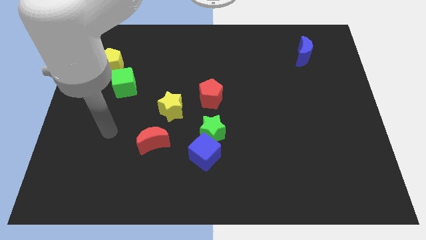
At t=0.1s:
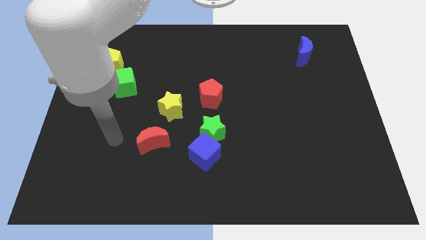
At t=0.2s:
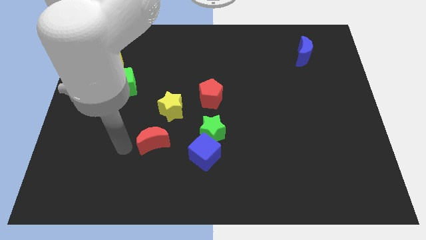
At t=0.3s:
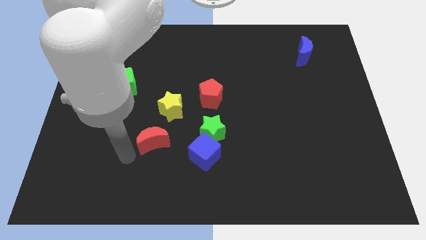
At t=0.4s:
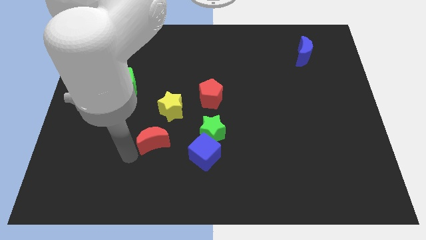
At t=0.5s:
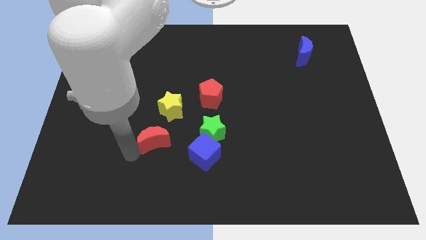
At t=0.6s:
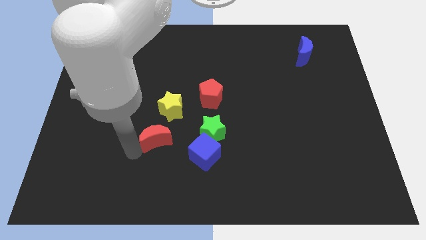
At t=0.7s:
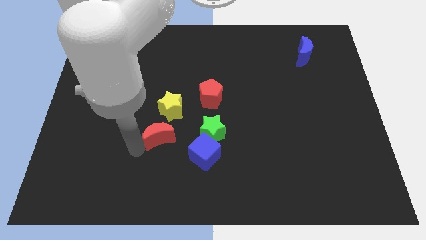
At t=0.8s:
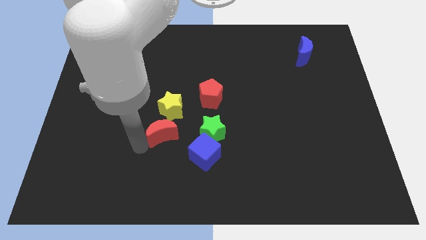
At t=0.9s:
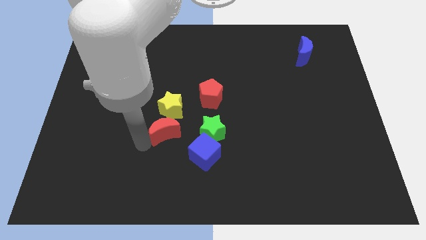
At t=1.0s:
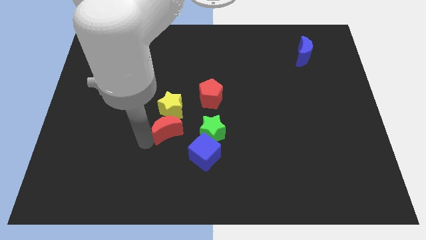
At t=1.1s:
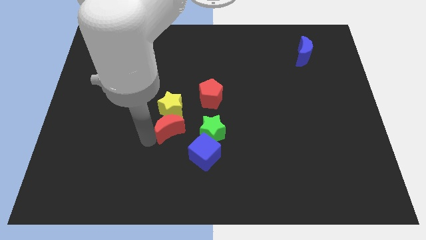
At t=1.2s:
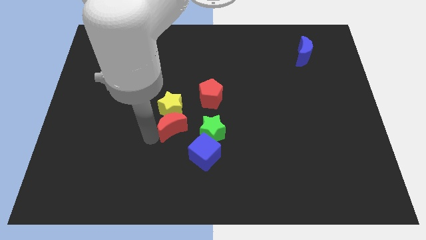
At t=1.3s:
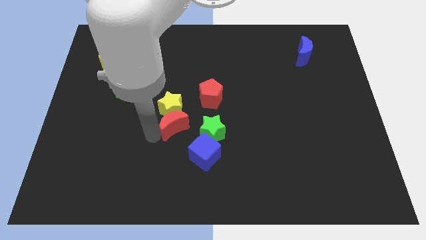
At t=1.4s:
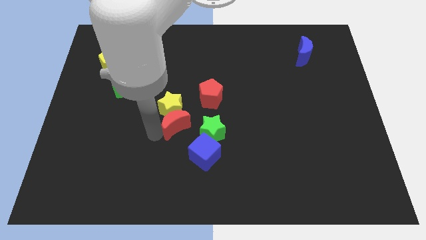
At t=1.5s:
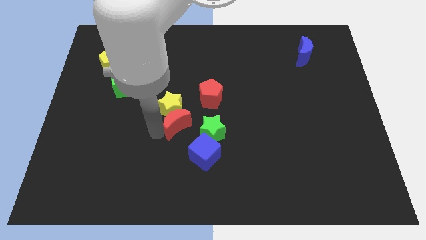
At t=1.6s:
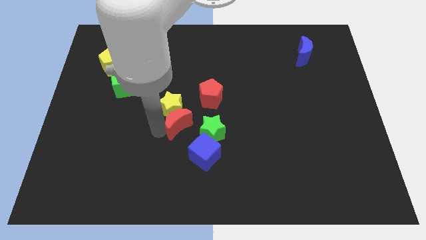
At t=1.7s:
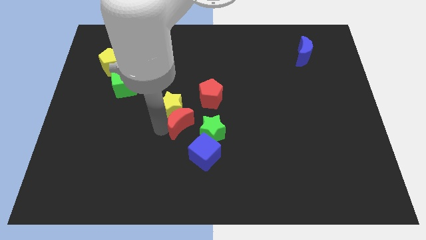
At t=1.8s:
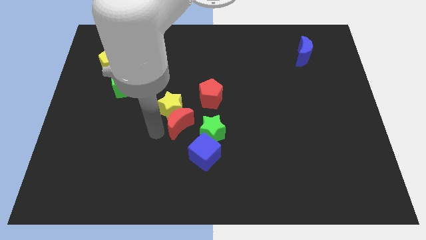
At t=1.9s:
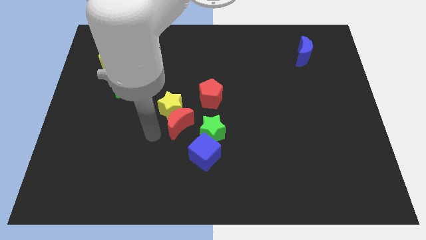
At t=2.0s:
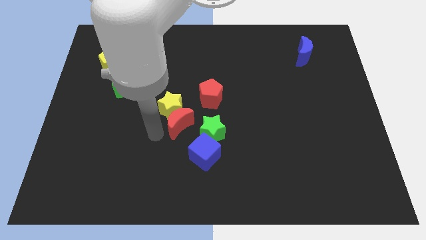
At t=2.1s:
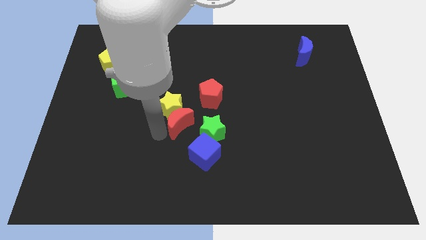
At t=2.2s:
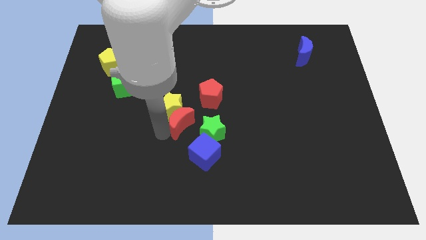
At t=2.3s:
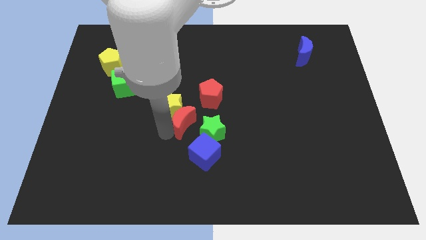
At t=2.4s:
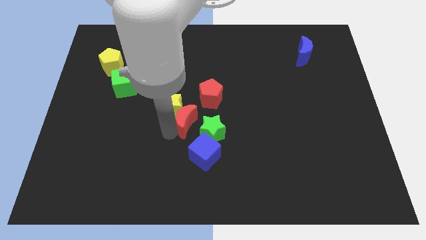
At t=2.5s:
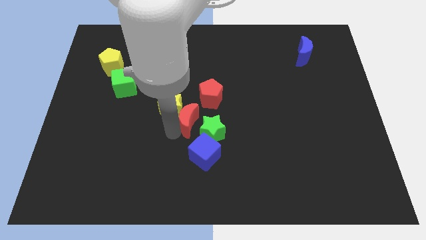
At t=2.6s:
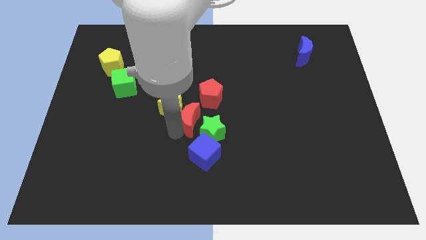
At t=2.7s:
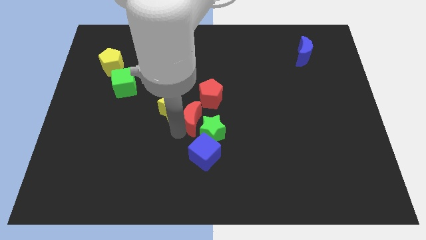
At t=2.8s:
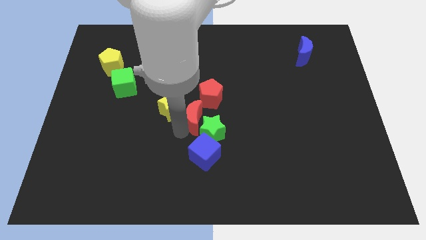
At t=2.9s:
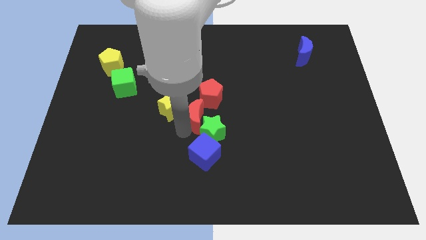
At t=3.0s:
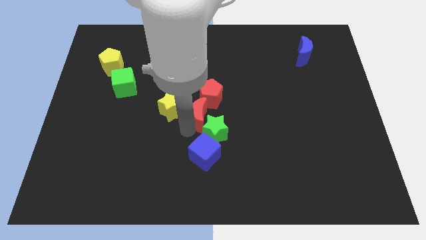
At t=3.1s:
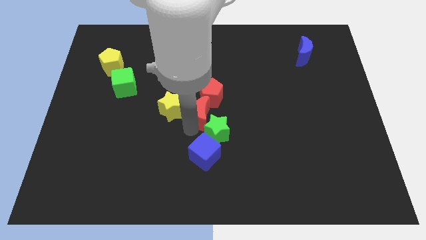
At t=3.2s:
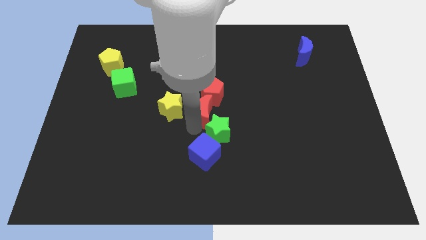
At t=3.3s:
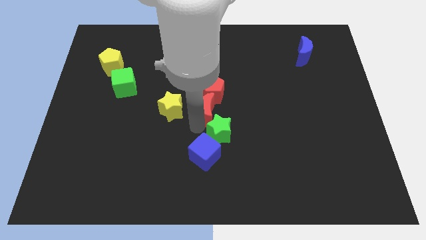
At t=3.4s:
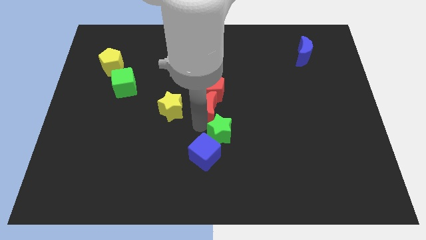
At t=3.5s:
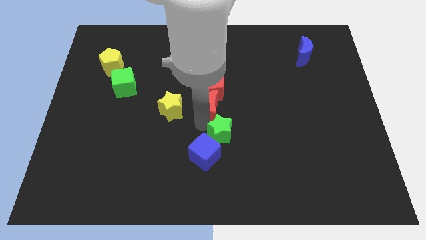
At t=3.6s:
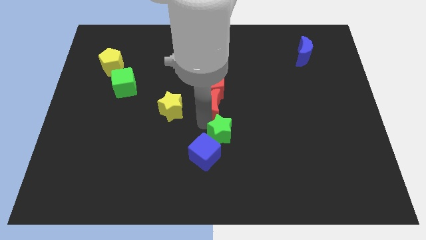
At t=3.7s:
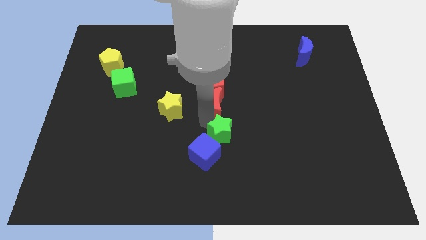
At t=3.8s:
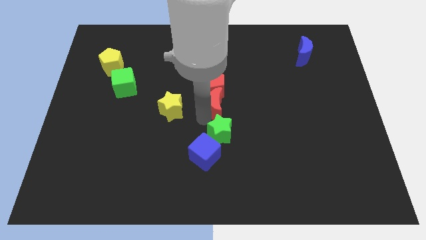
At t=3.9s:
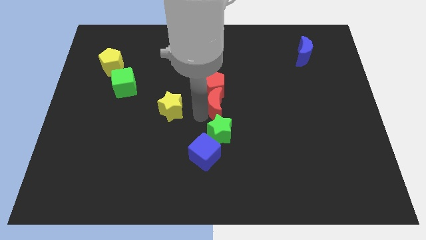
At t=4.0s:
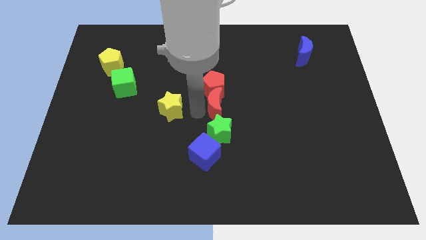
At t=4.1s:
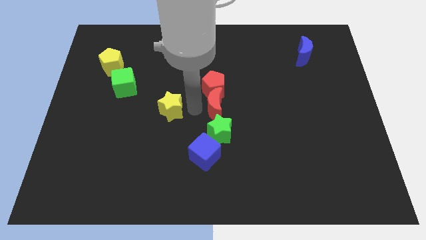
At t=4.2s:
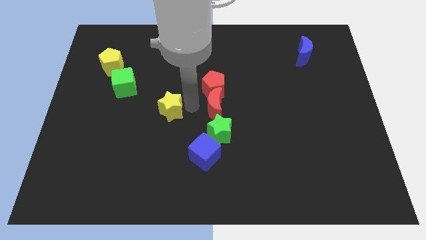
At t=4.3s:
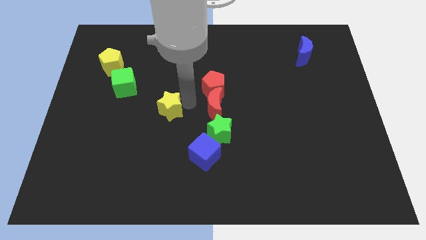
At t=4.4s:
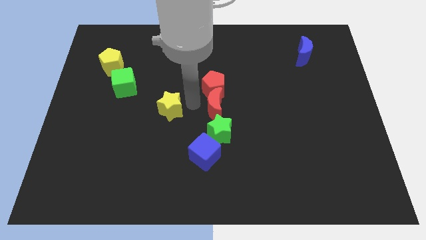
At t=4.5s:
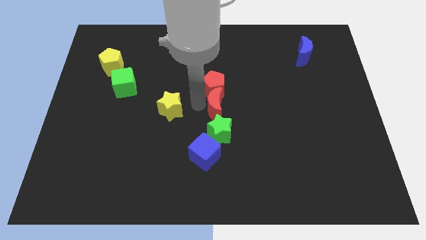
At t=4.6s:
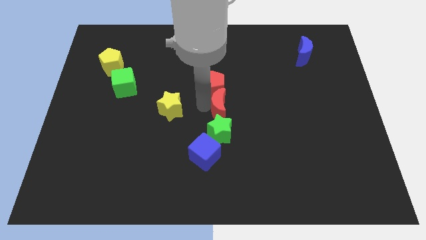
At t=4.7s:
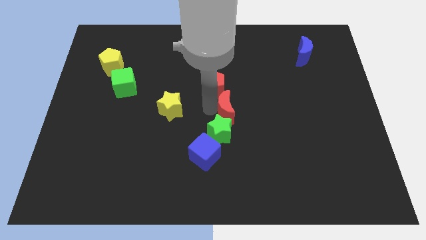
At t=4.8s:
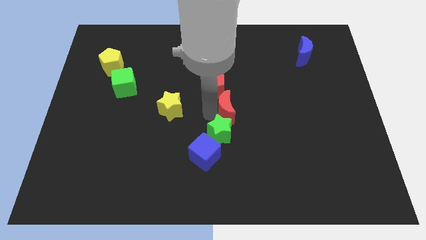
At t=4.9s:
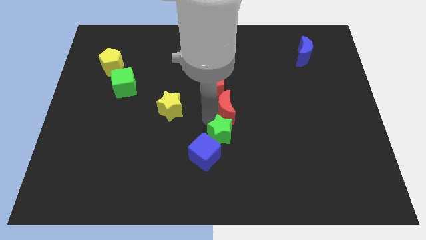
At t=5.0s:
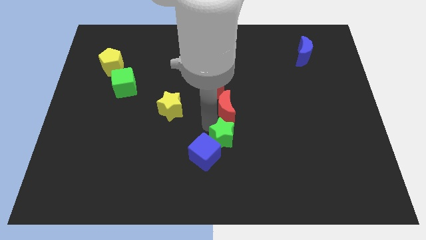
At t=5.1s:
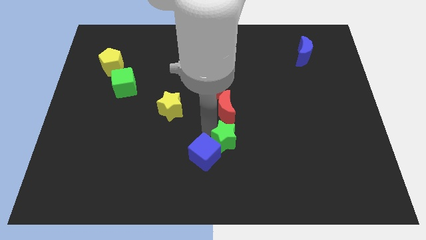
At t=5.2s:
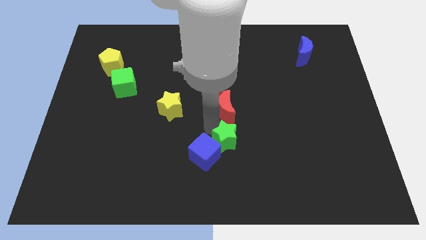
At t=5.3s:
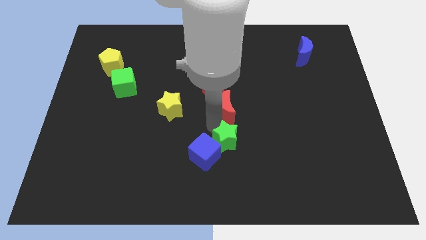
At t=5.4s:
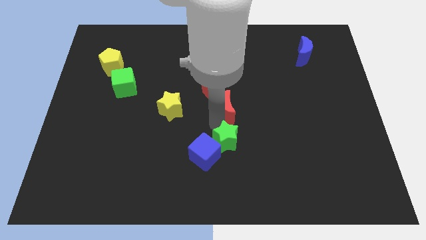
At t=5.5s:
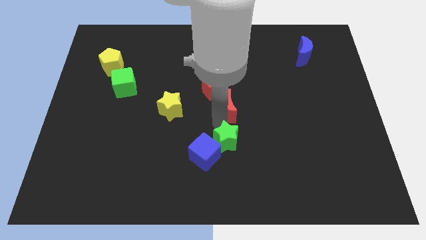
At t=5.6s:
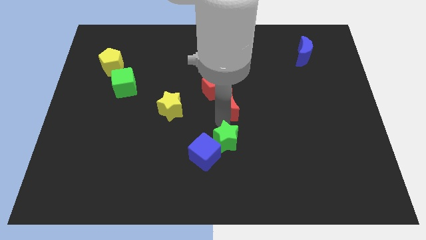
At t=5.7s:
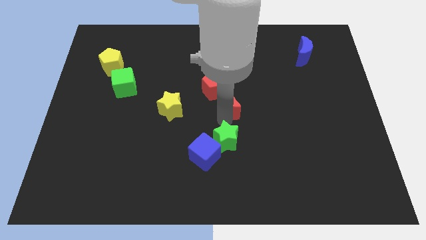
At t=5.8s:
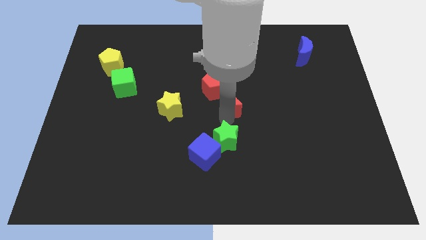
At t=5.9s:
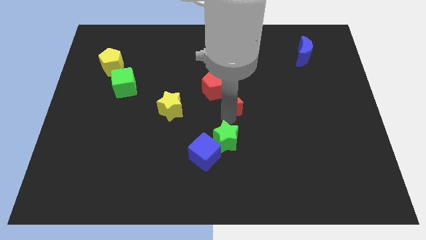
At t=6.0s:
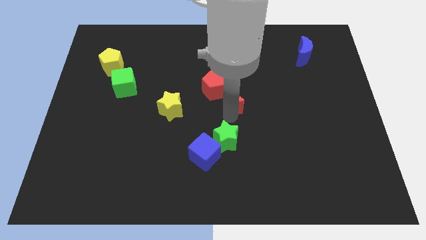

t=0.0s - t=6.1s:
move the red moon diagonally up and right

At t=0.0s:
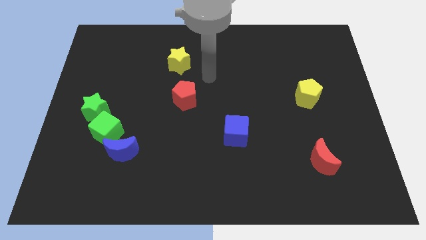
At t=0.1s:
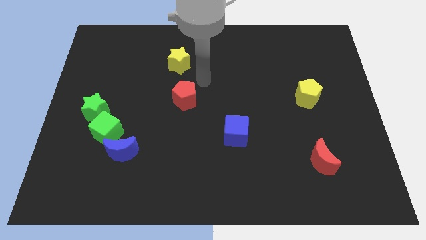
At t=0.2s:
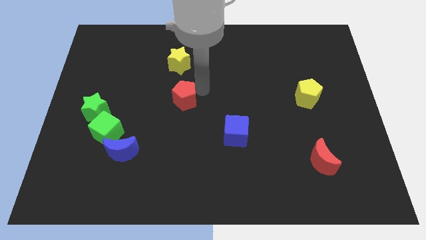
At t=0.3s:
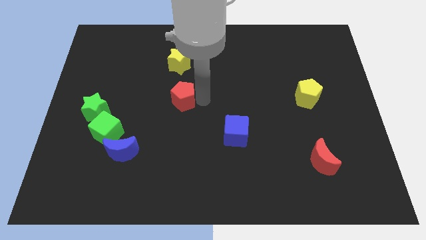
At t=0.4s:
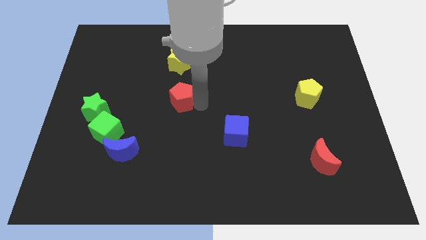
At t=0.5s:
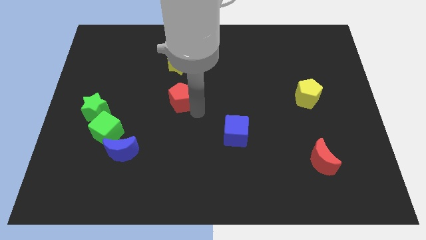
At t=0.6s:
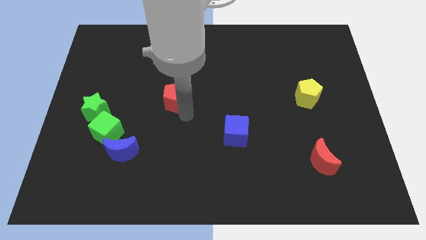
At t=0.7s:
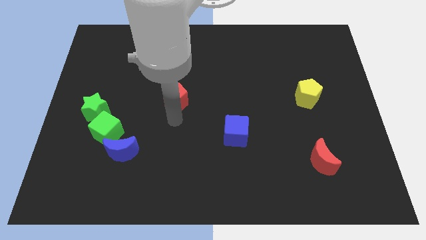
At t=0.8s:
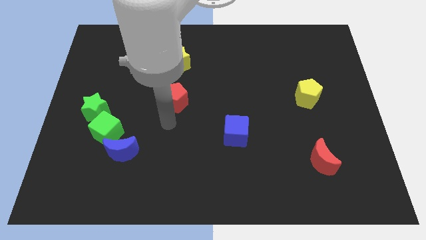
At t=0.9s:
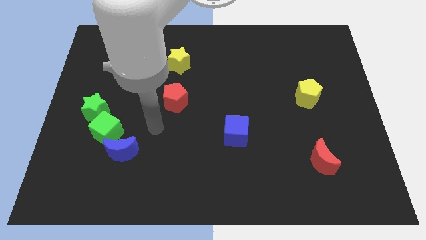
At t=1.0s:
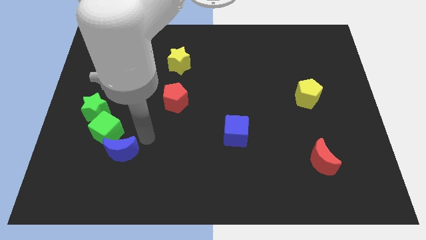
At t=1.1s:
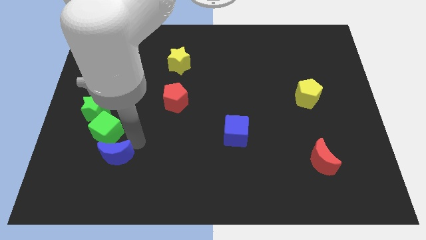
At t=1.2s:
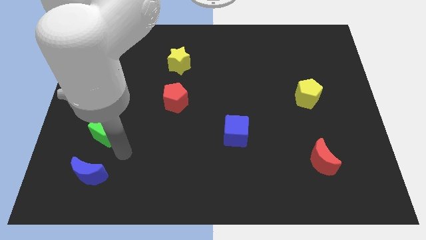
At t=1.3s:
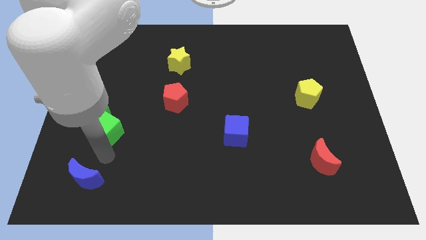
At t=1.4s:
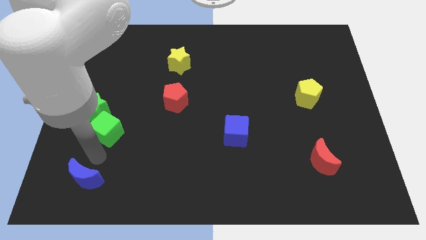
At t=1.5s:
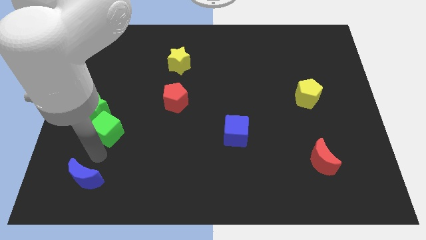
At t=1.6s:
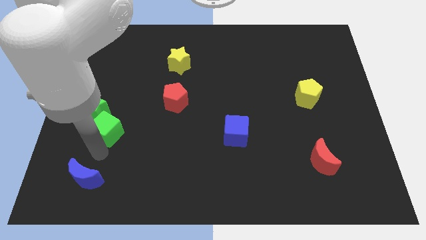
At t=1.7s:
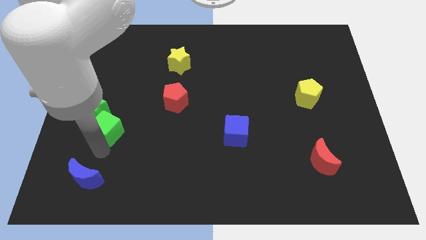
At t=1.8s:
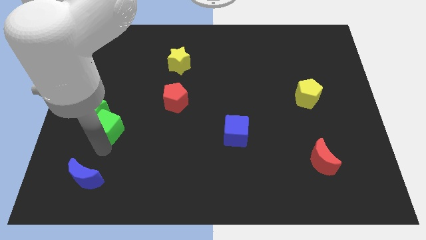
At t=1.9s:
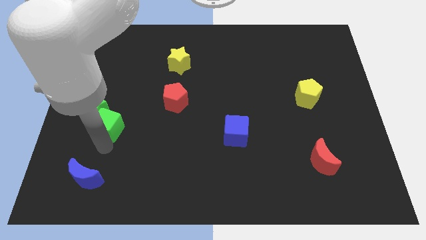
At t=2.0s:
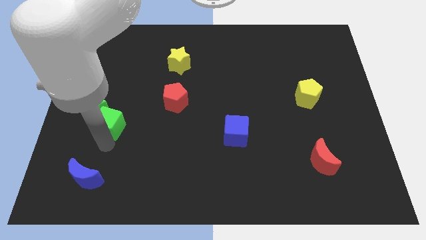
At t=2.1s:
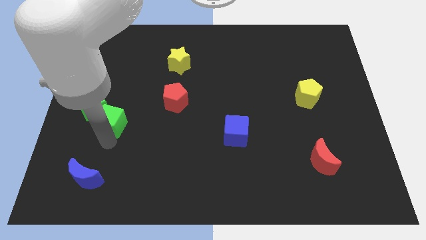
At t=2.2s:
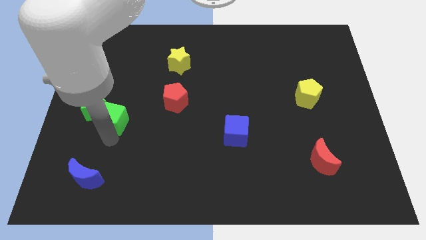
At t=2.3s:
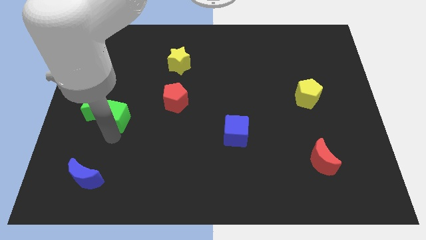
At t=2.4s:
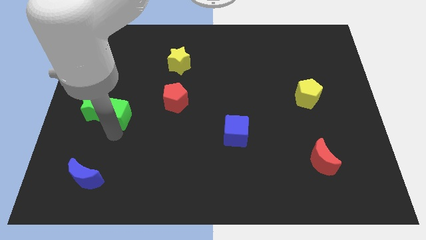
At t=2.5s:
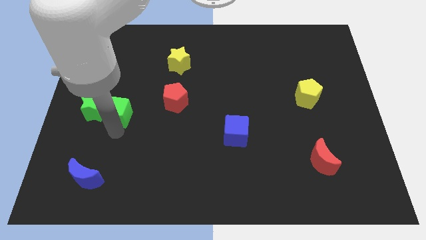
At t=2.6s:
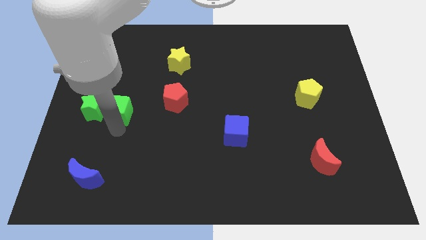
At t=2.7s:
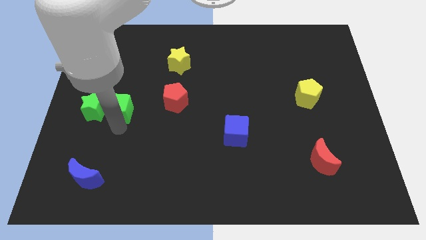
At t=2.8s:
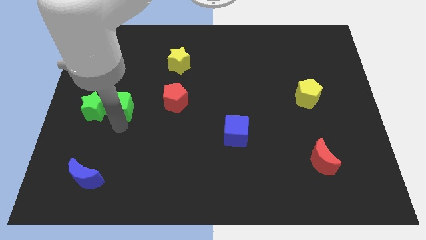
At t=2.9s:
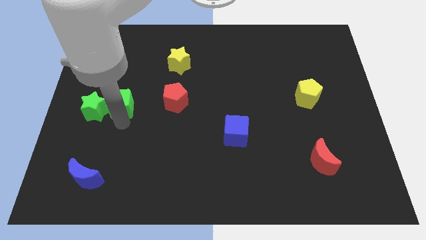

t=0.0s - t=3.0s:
push the green cube up a little bit
